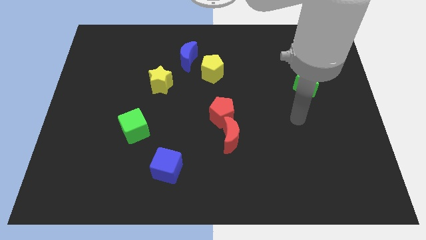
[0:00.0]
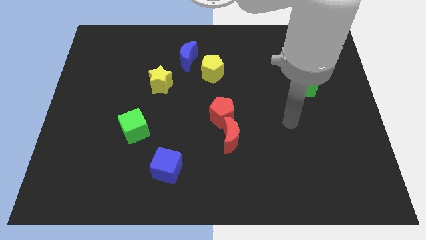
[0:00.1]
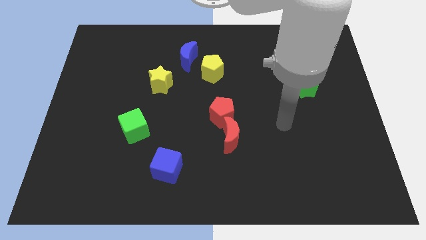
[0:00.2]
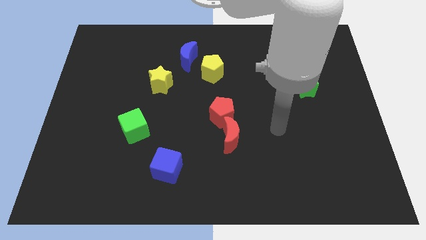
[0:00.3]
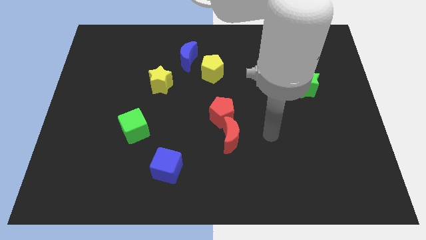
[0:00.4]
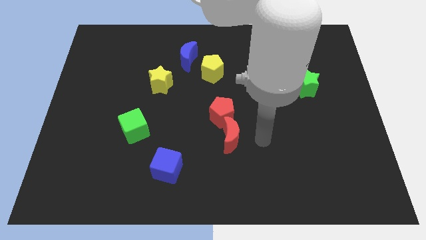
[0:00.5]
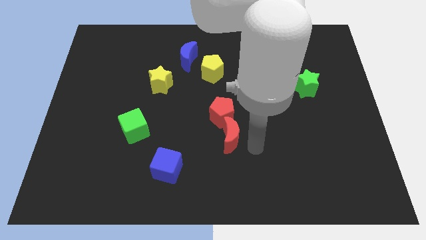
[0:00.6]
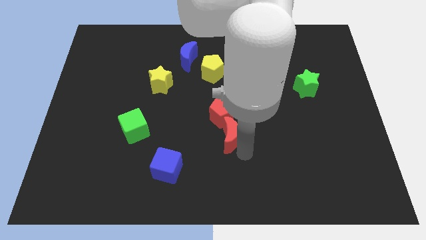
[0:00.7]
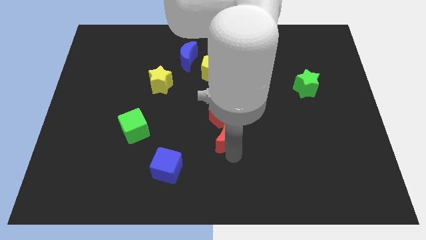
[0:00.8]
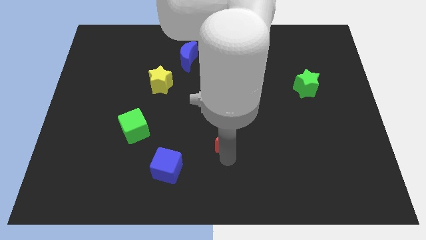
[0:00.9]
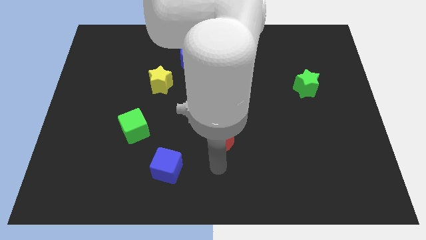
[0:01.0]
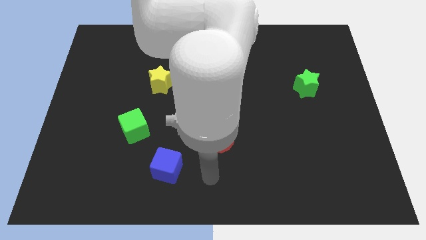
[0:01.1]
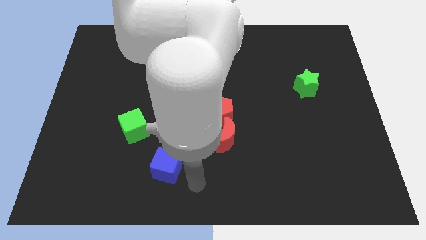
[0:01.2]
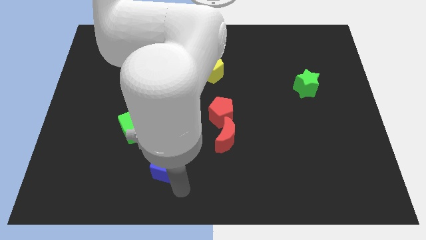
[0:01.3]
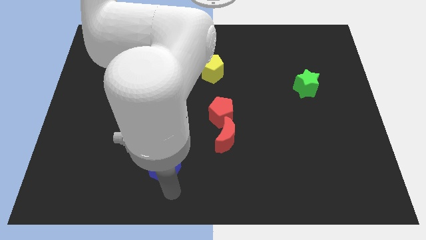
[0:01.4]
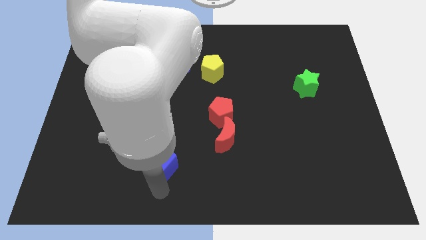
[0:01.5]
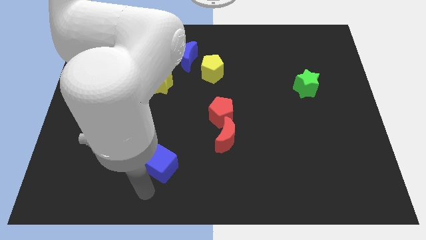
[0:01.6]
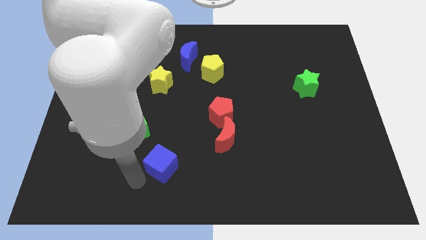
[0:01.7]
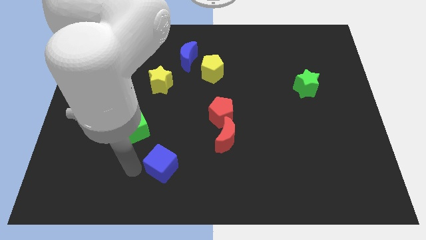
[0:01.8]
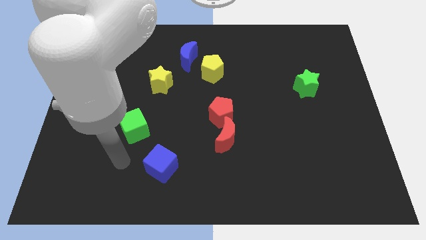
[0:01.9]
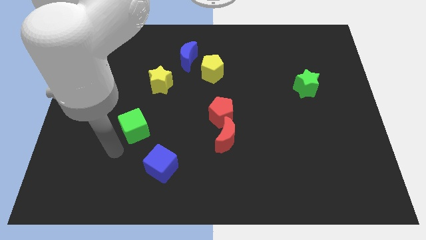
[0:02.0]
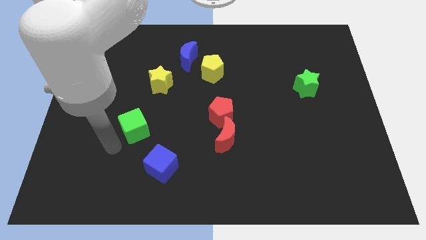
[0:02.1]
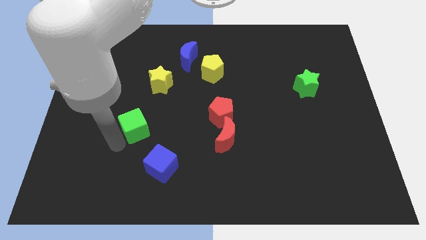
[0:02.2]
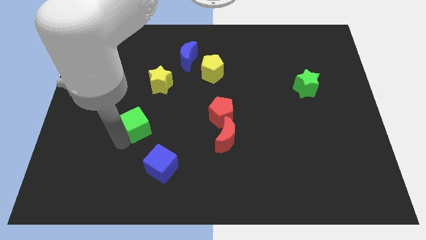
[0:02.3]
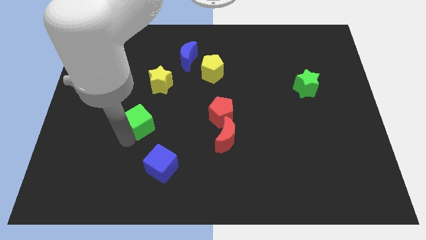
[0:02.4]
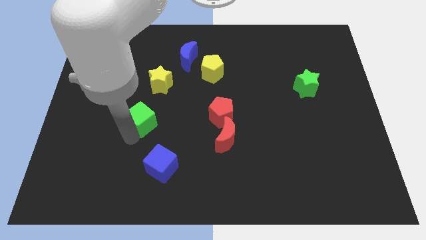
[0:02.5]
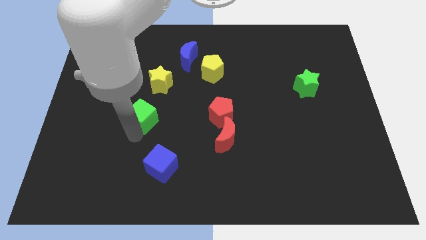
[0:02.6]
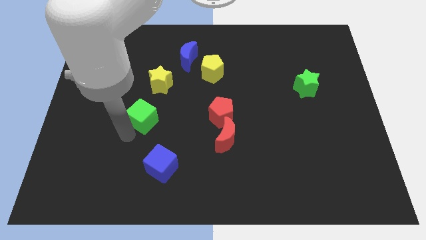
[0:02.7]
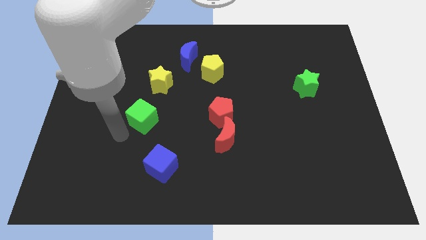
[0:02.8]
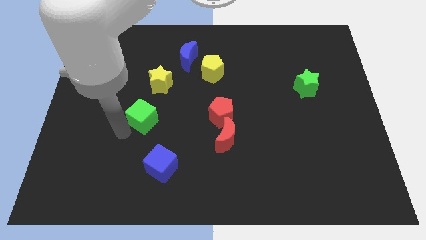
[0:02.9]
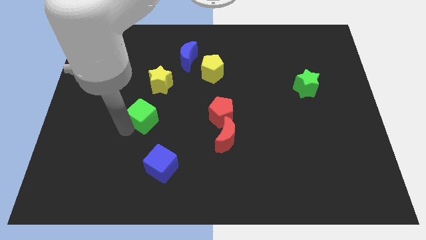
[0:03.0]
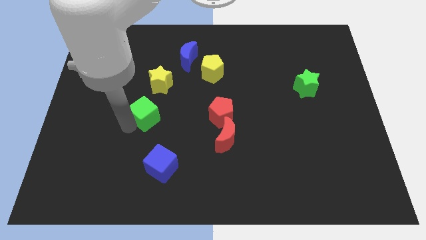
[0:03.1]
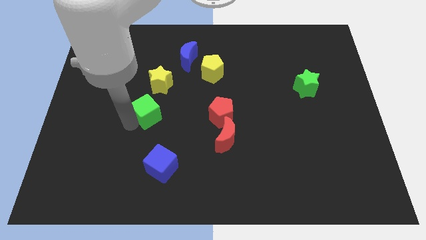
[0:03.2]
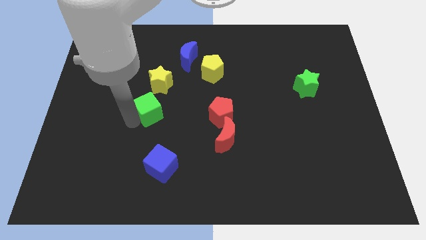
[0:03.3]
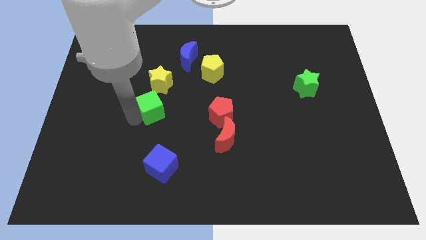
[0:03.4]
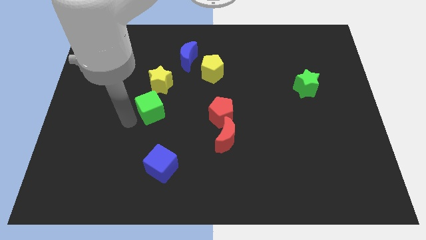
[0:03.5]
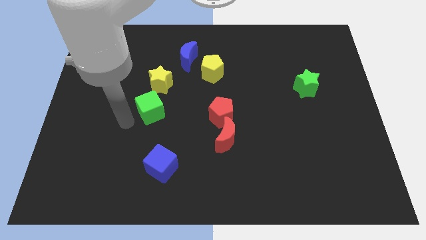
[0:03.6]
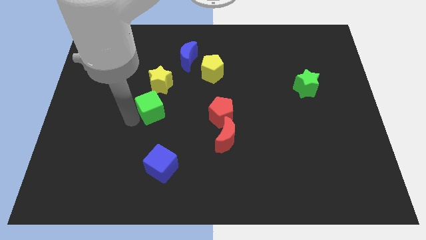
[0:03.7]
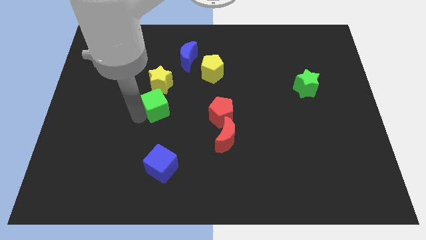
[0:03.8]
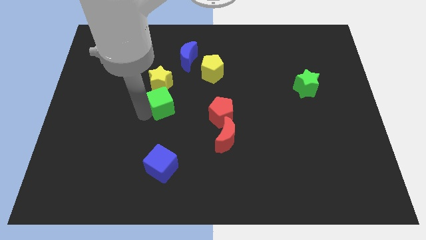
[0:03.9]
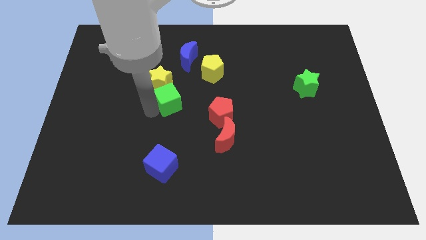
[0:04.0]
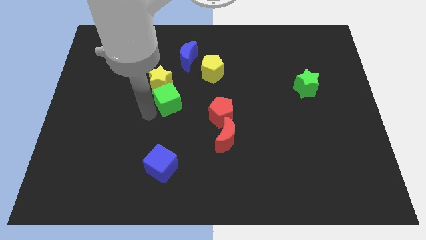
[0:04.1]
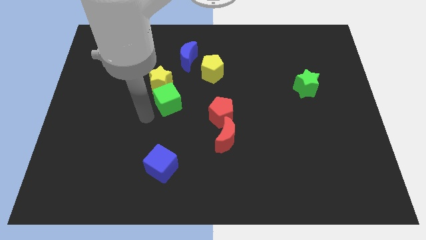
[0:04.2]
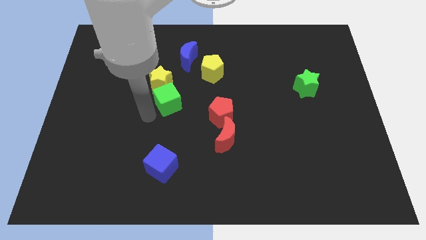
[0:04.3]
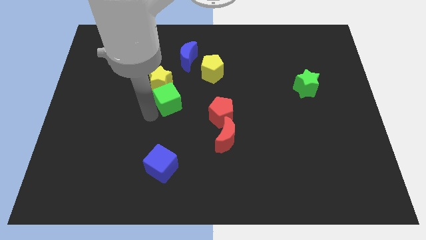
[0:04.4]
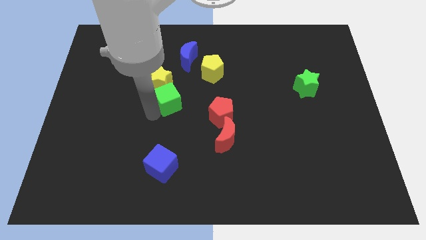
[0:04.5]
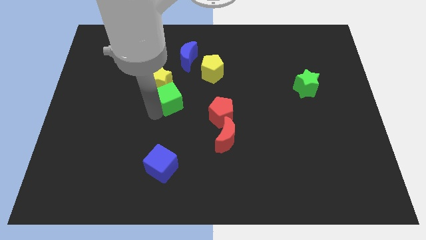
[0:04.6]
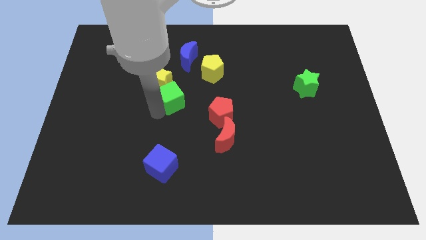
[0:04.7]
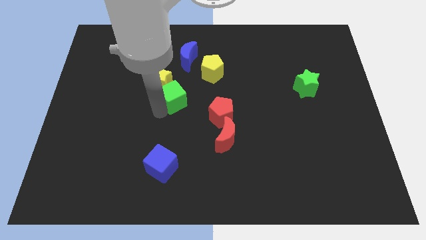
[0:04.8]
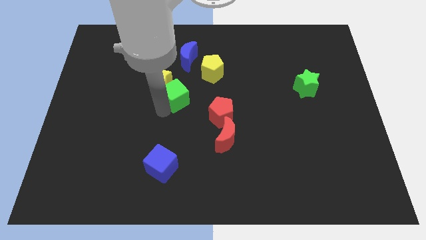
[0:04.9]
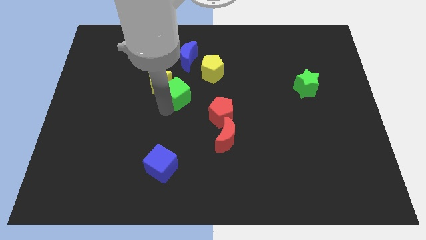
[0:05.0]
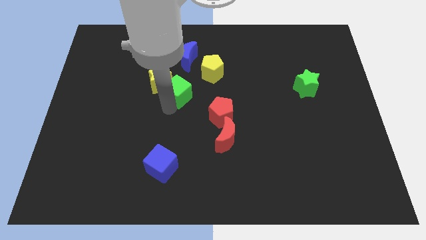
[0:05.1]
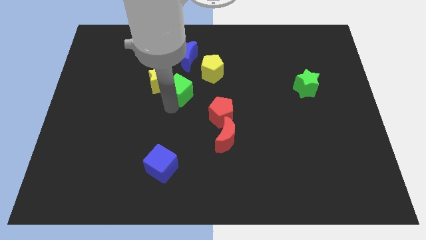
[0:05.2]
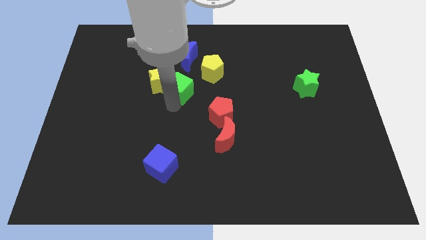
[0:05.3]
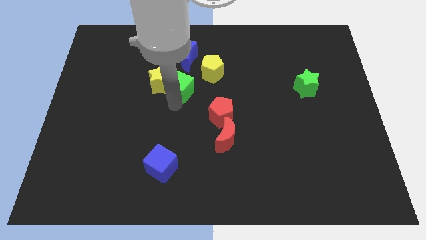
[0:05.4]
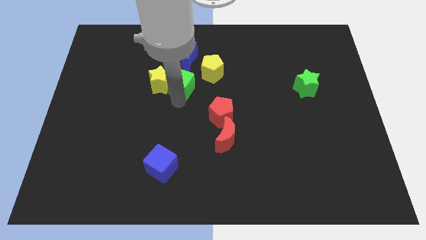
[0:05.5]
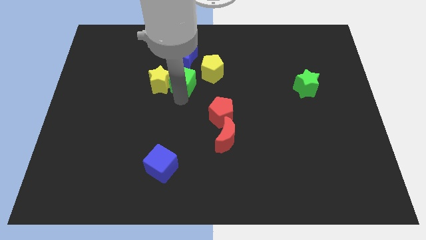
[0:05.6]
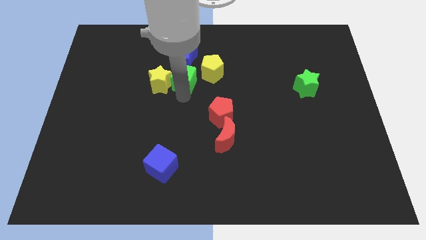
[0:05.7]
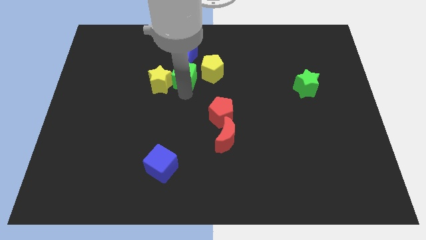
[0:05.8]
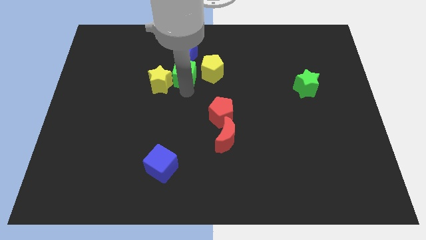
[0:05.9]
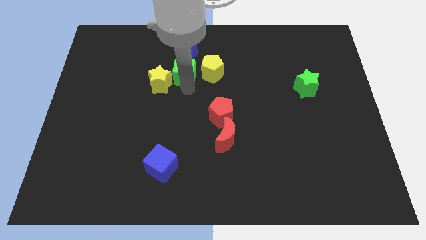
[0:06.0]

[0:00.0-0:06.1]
slide the green cube towards the blue moon
